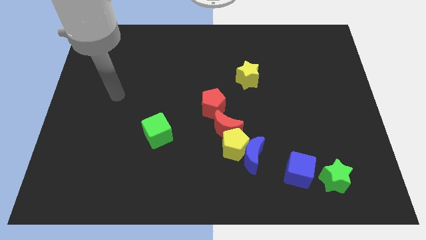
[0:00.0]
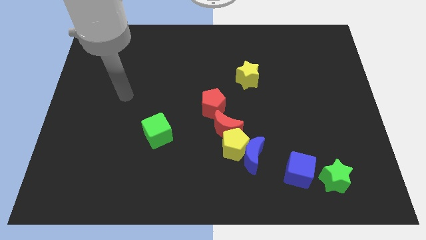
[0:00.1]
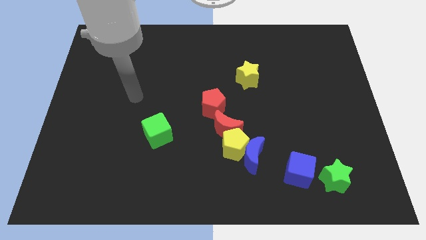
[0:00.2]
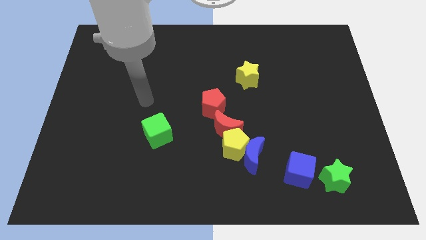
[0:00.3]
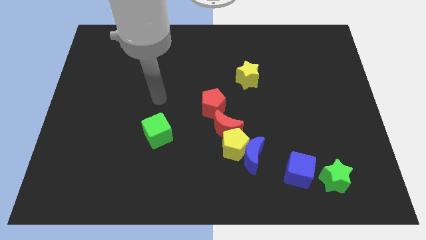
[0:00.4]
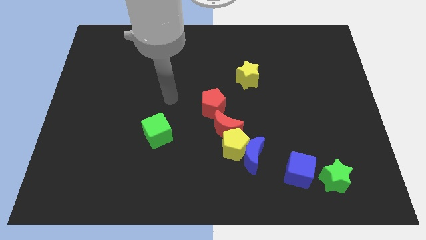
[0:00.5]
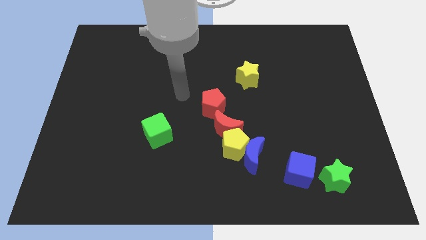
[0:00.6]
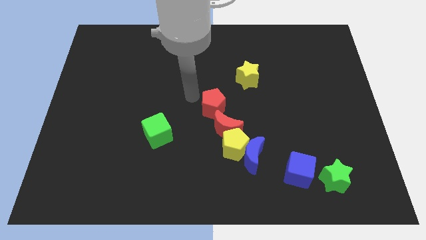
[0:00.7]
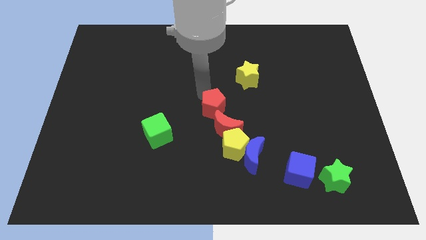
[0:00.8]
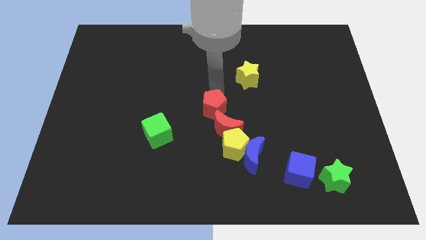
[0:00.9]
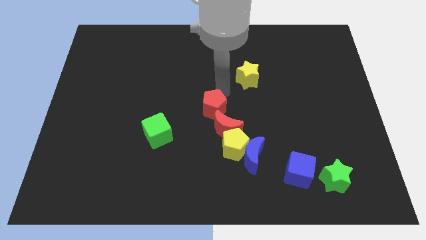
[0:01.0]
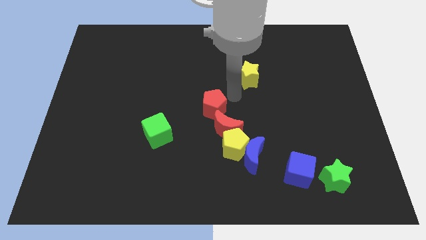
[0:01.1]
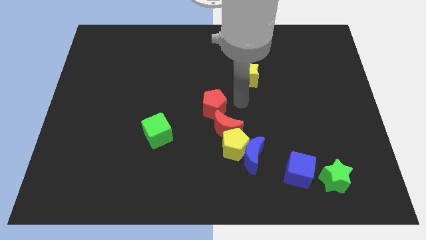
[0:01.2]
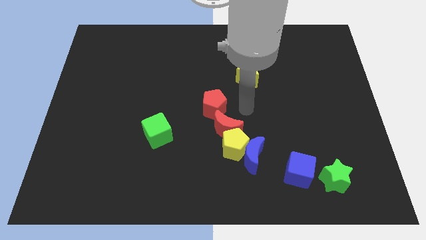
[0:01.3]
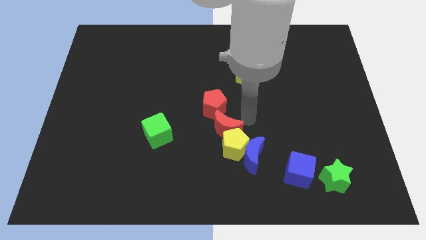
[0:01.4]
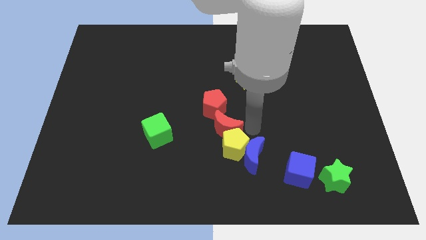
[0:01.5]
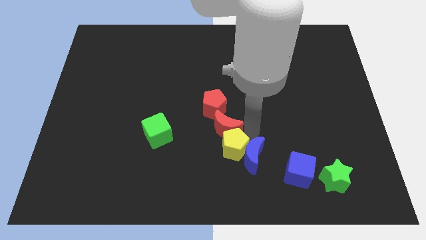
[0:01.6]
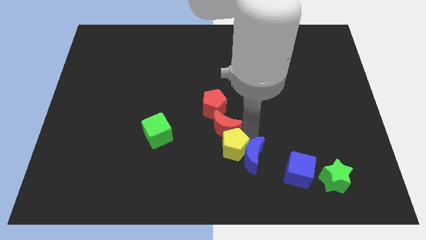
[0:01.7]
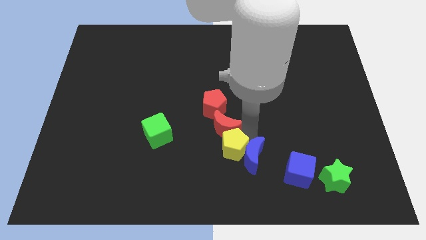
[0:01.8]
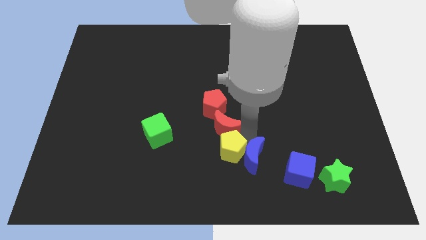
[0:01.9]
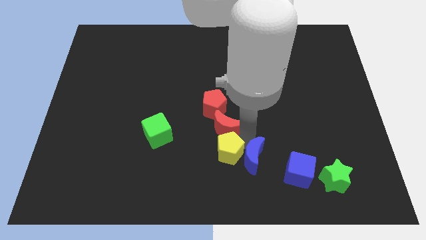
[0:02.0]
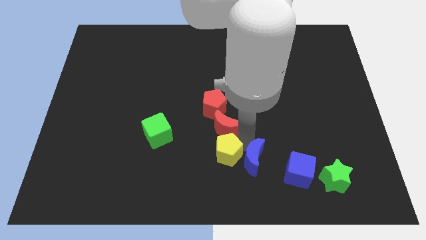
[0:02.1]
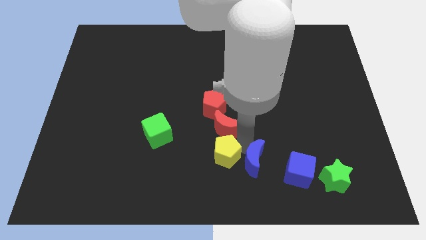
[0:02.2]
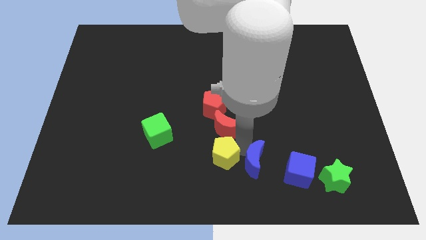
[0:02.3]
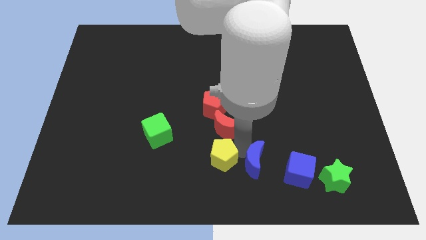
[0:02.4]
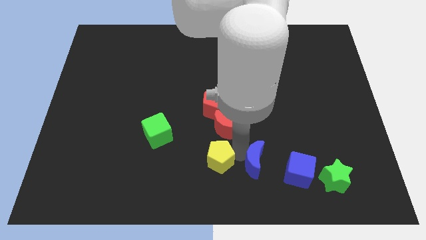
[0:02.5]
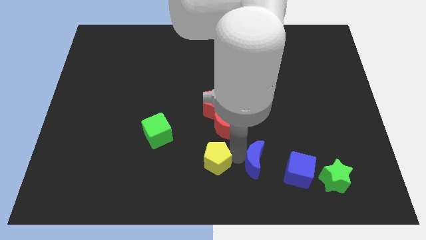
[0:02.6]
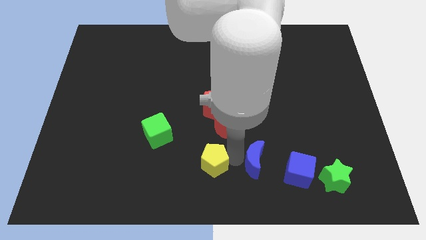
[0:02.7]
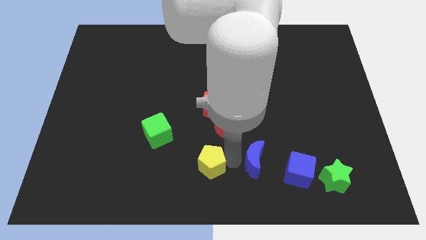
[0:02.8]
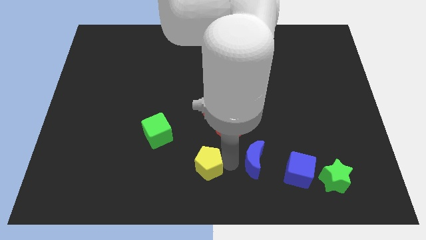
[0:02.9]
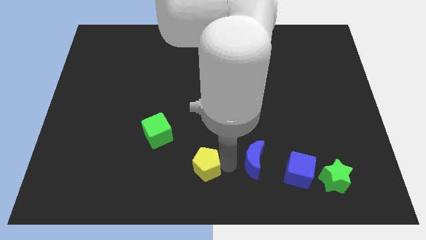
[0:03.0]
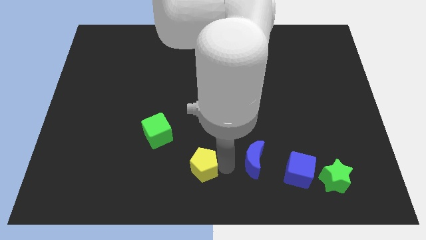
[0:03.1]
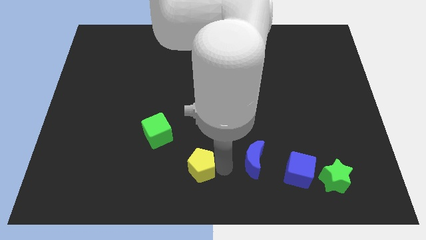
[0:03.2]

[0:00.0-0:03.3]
separate the yellow pentagon from the blue moon and red moon

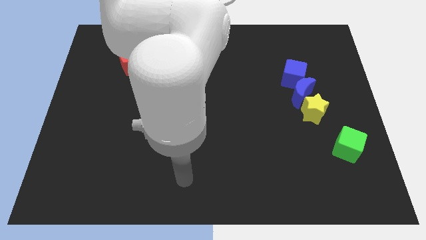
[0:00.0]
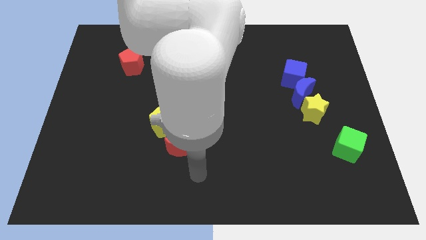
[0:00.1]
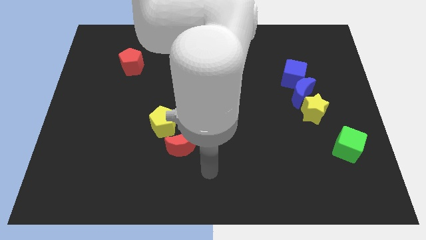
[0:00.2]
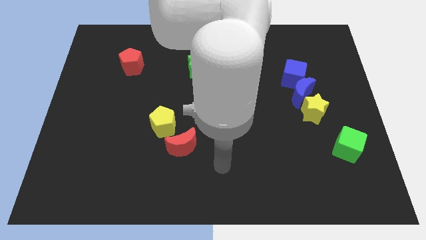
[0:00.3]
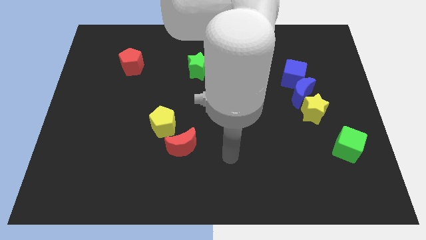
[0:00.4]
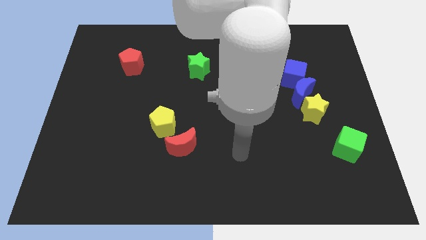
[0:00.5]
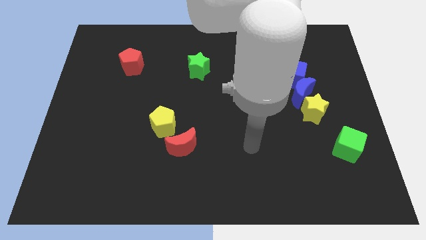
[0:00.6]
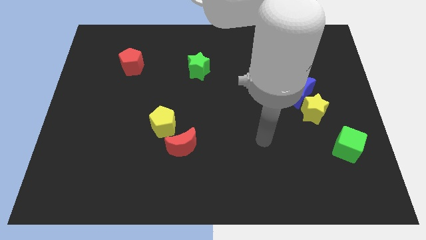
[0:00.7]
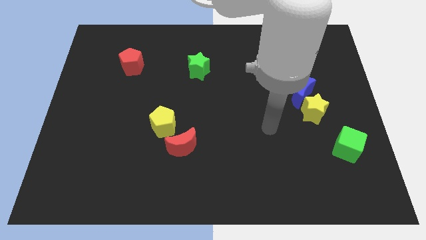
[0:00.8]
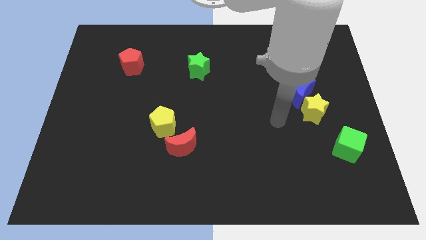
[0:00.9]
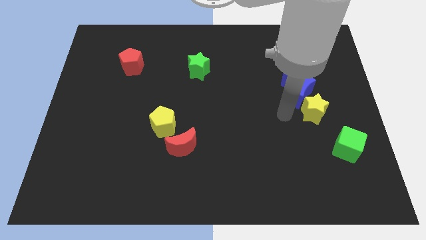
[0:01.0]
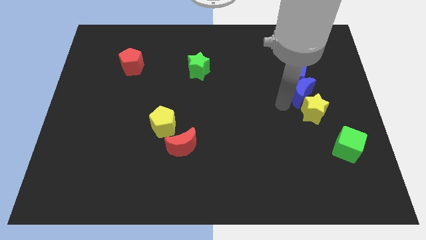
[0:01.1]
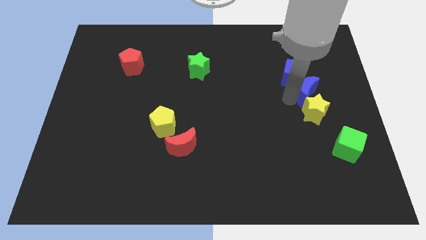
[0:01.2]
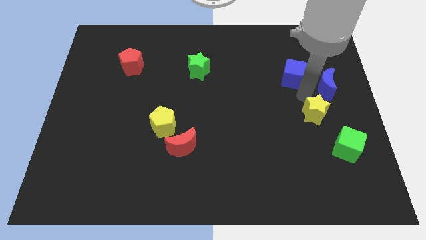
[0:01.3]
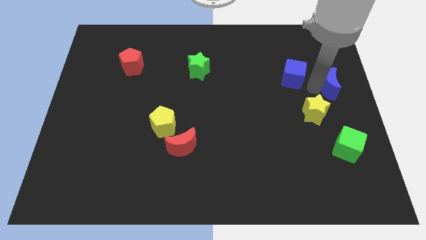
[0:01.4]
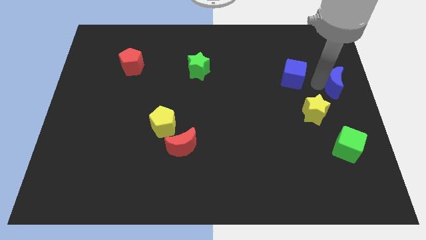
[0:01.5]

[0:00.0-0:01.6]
pull the blue cube apart from the blue moon

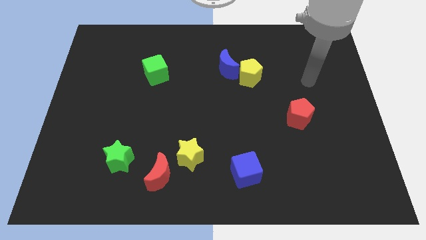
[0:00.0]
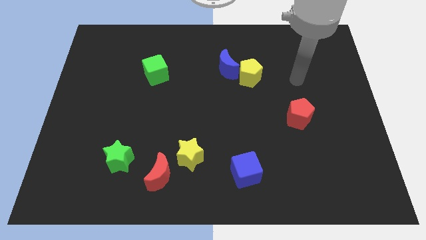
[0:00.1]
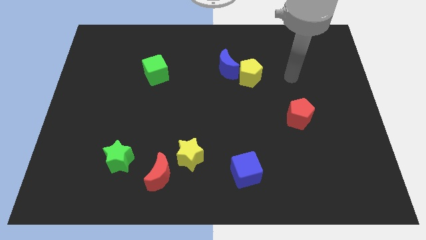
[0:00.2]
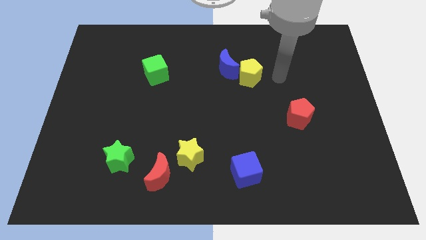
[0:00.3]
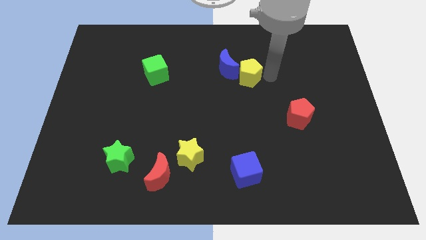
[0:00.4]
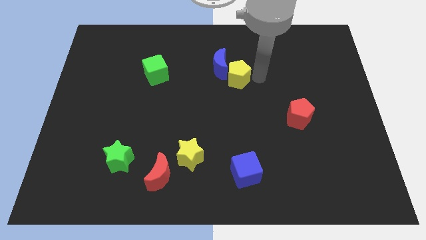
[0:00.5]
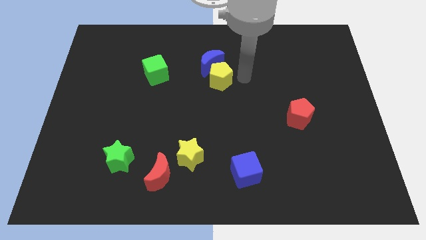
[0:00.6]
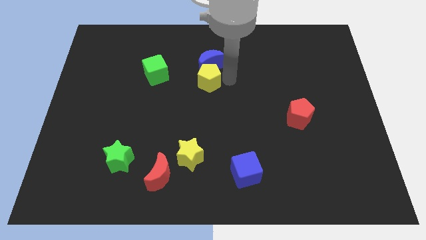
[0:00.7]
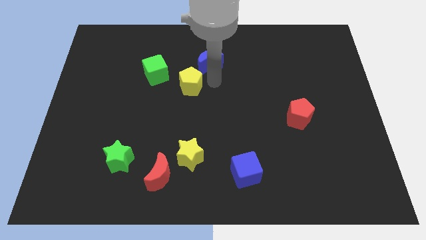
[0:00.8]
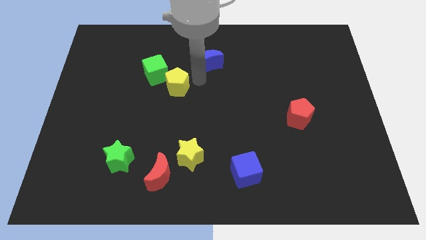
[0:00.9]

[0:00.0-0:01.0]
move the blue moon away from the yellow pentagon

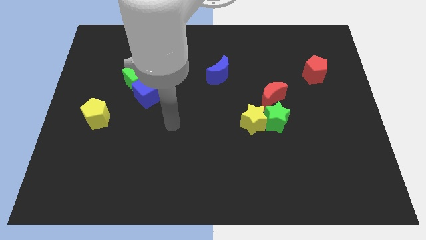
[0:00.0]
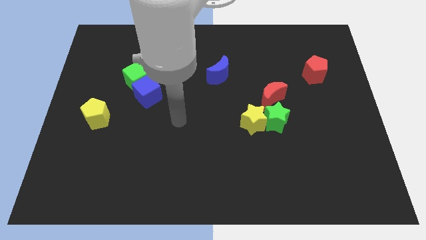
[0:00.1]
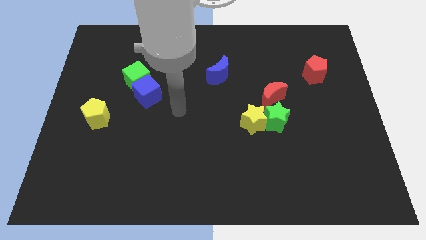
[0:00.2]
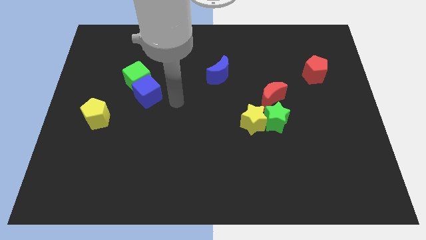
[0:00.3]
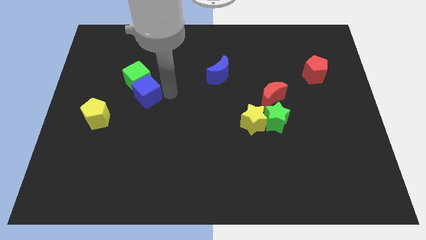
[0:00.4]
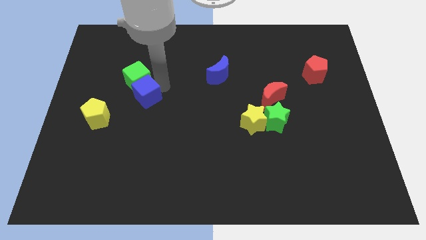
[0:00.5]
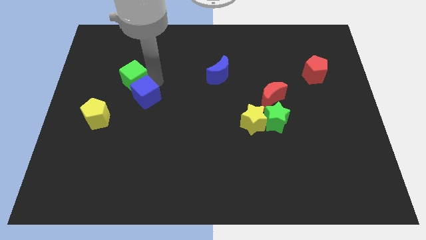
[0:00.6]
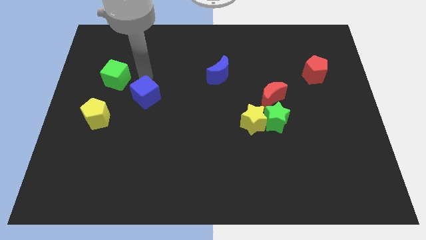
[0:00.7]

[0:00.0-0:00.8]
pull the blue cube apart from the green cube

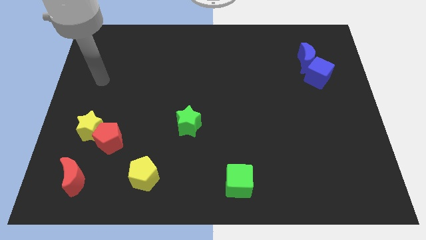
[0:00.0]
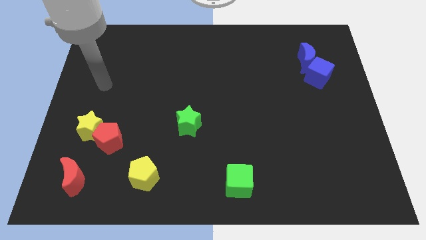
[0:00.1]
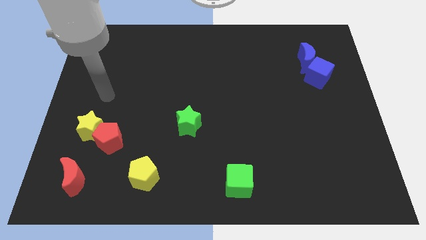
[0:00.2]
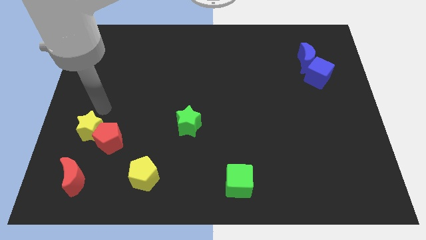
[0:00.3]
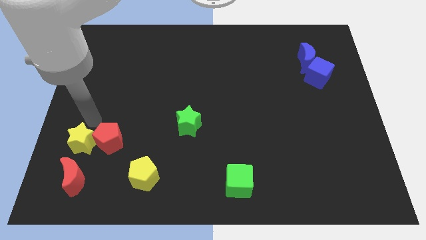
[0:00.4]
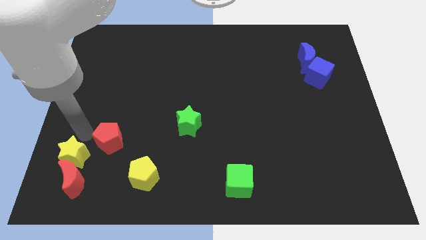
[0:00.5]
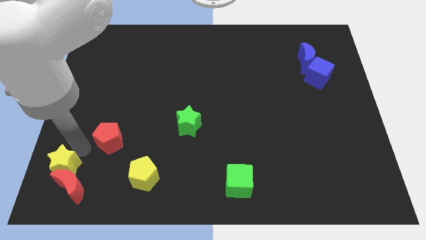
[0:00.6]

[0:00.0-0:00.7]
pull the red pentagon apart from the yellow star

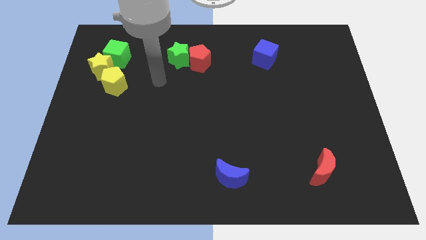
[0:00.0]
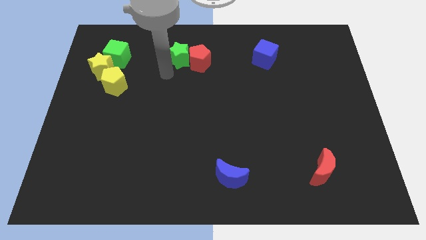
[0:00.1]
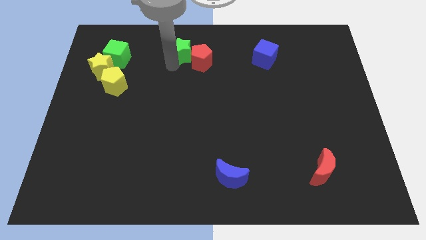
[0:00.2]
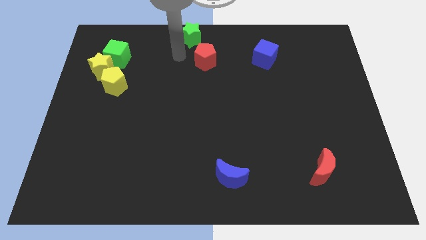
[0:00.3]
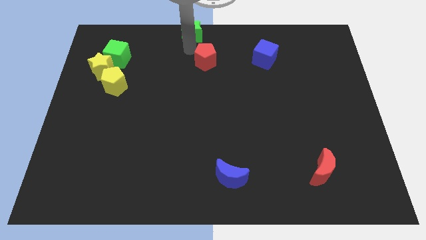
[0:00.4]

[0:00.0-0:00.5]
separate the red pentagon from the green star

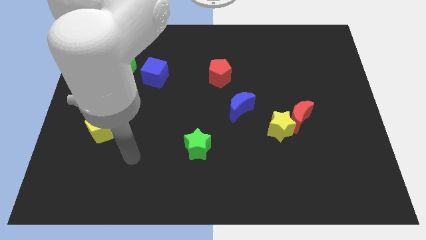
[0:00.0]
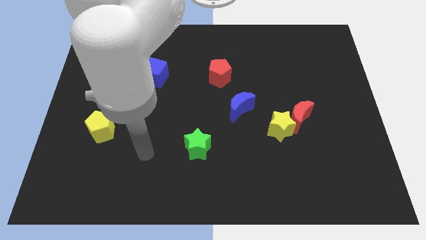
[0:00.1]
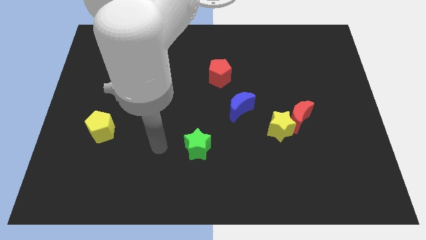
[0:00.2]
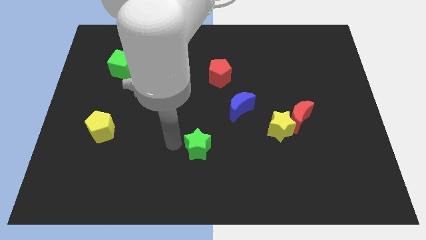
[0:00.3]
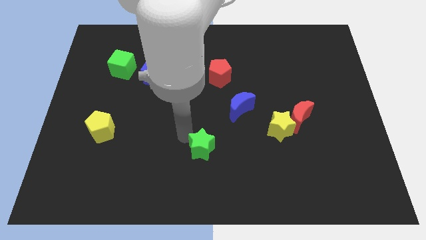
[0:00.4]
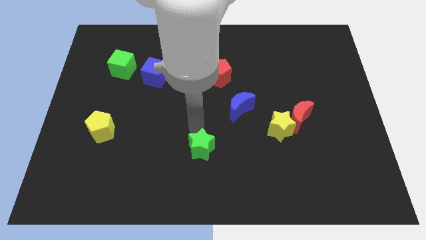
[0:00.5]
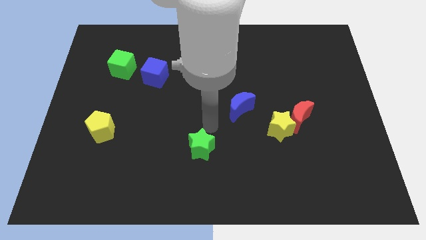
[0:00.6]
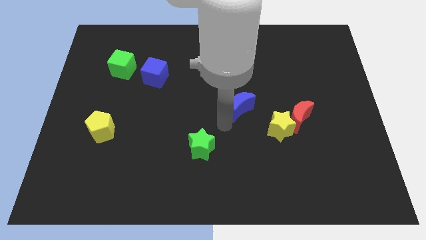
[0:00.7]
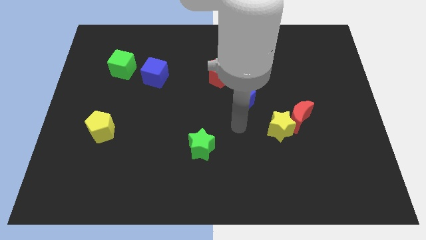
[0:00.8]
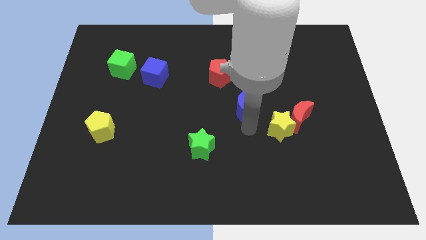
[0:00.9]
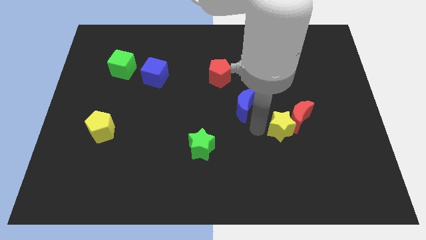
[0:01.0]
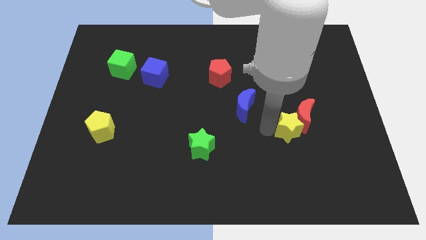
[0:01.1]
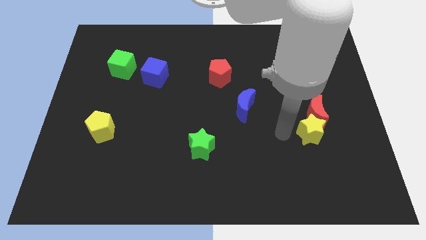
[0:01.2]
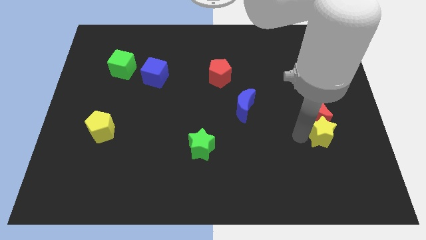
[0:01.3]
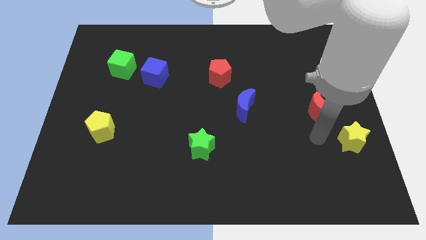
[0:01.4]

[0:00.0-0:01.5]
separate the red moon from the yellow star
